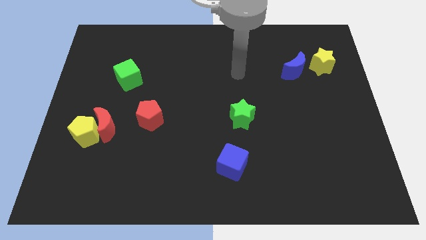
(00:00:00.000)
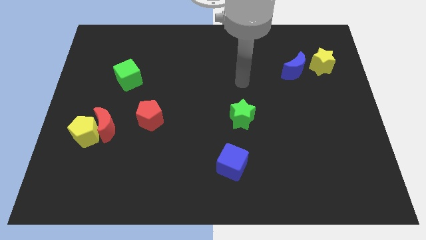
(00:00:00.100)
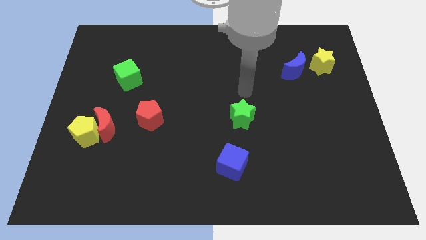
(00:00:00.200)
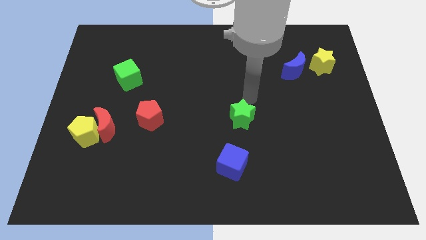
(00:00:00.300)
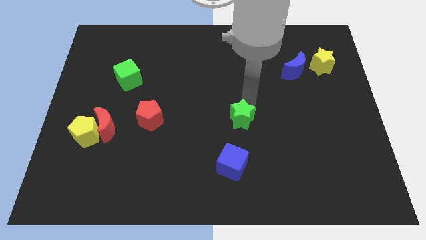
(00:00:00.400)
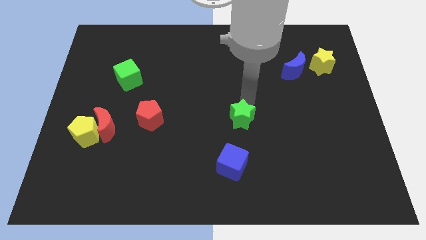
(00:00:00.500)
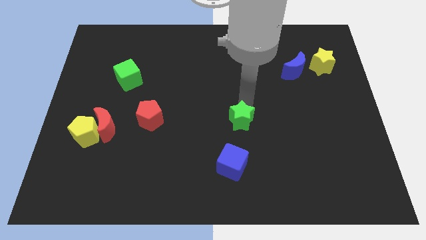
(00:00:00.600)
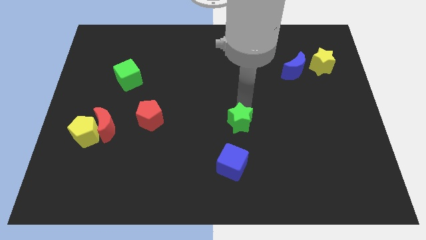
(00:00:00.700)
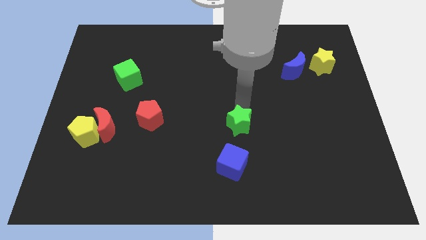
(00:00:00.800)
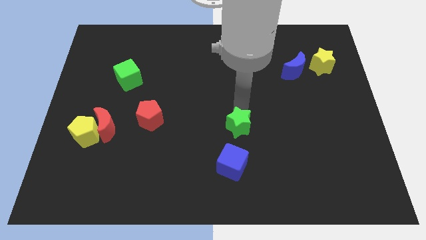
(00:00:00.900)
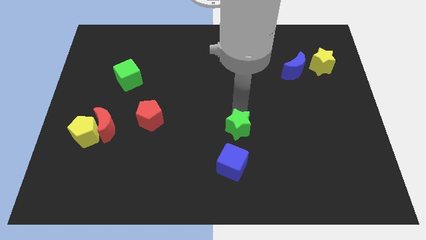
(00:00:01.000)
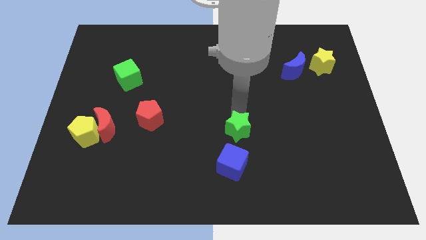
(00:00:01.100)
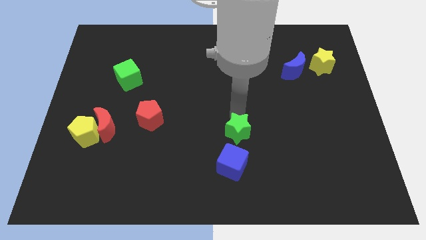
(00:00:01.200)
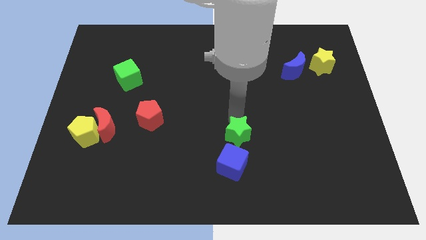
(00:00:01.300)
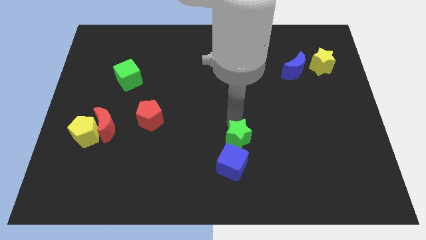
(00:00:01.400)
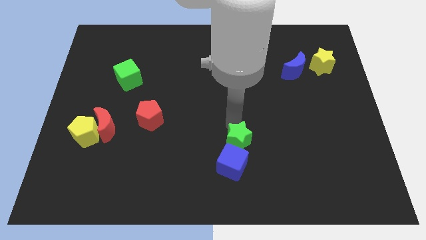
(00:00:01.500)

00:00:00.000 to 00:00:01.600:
move the green star close to the blue cube

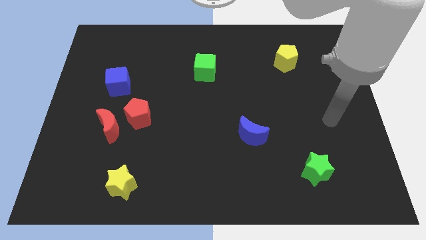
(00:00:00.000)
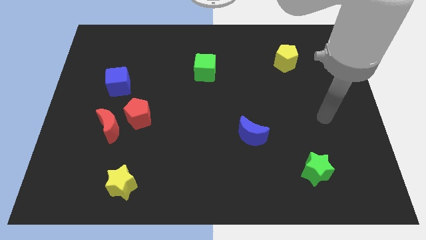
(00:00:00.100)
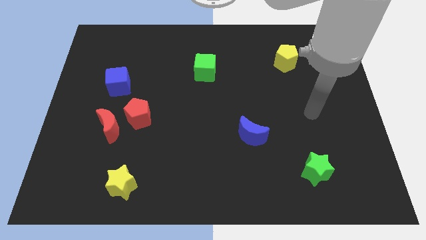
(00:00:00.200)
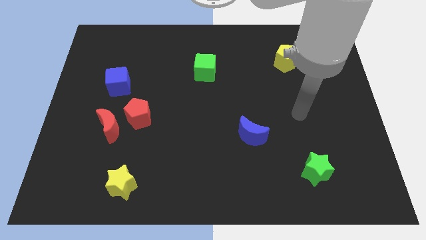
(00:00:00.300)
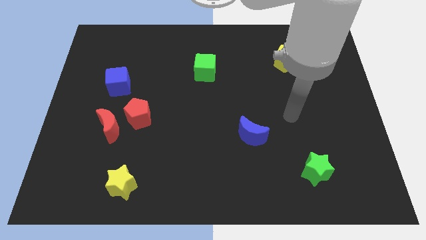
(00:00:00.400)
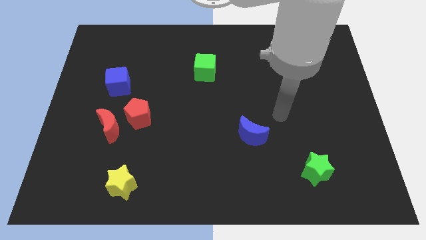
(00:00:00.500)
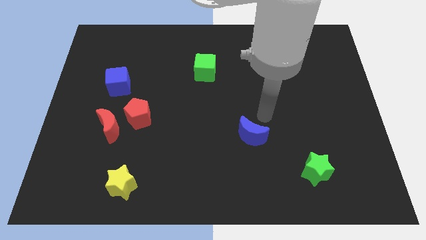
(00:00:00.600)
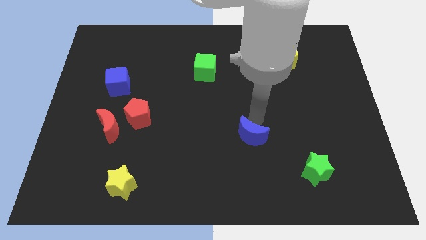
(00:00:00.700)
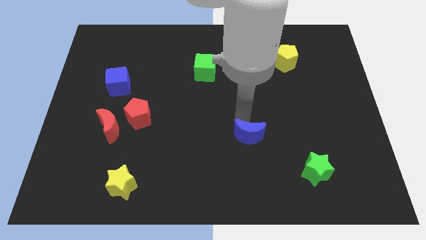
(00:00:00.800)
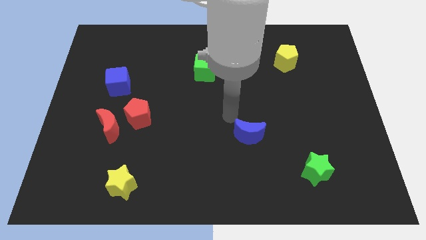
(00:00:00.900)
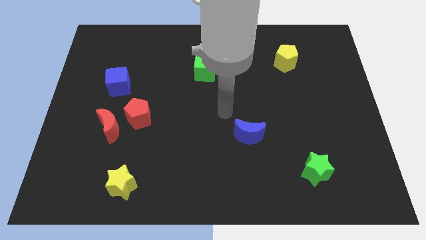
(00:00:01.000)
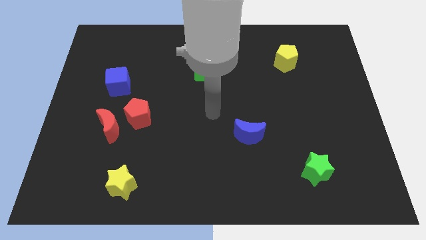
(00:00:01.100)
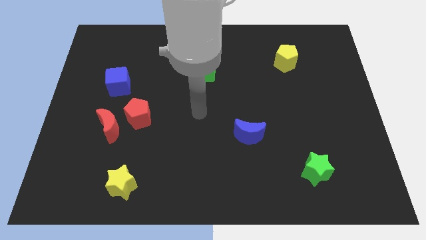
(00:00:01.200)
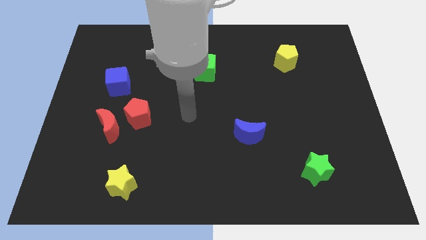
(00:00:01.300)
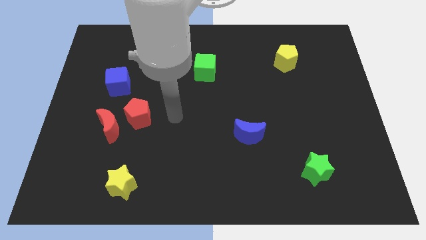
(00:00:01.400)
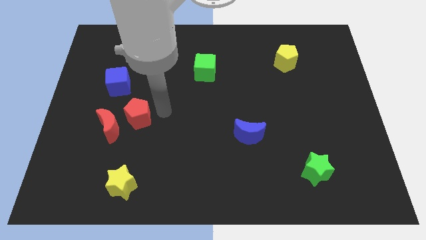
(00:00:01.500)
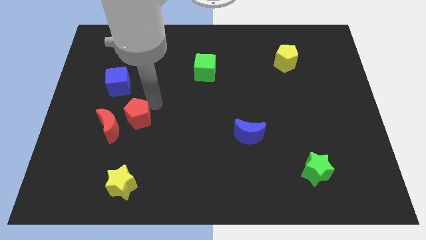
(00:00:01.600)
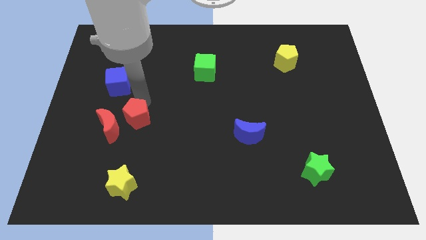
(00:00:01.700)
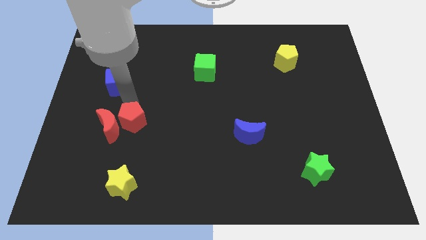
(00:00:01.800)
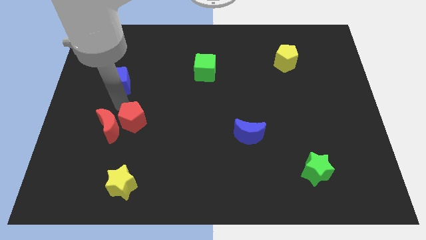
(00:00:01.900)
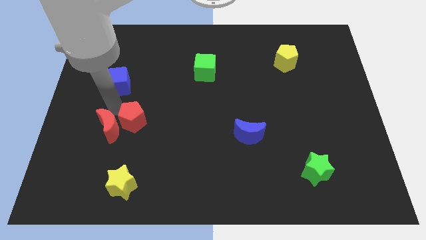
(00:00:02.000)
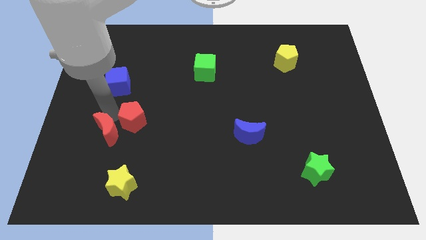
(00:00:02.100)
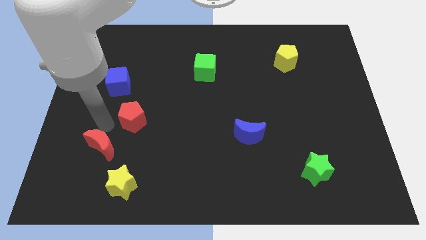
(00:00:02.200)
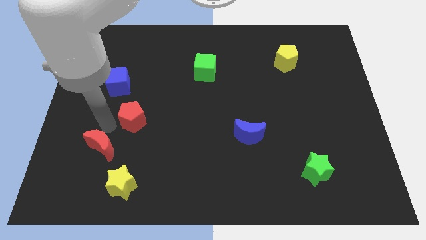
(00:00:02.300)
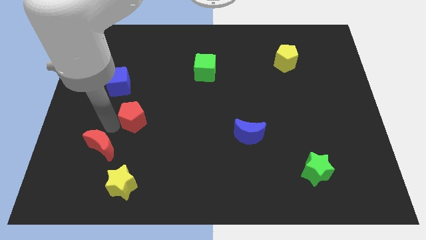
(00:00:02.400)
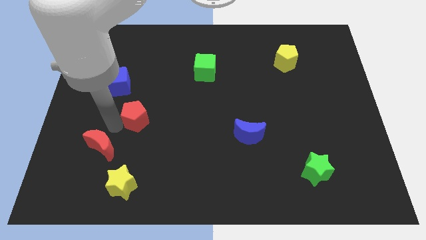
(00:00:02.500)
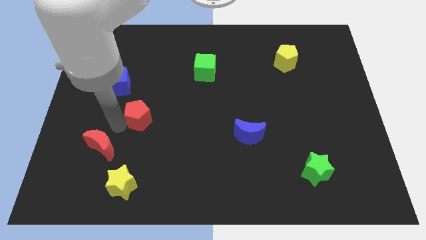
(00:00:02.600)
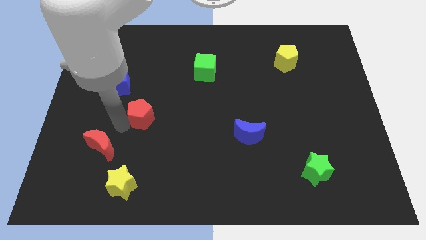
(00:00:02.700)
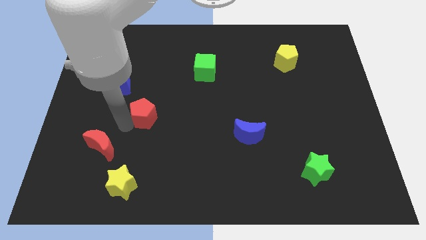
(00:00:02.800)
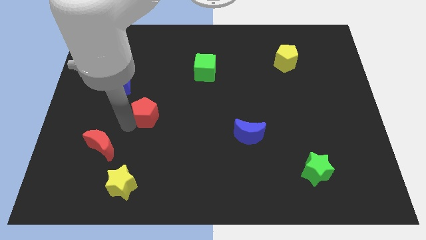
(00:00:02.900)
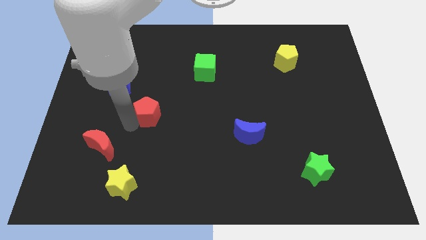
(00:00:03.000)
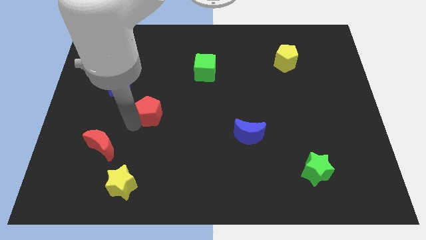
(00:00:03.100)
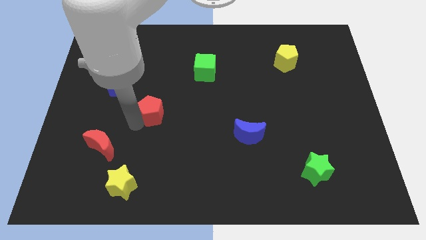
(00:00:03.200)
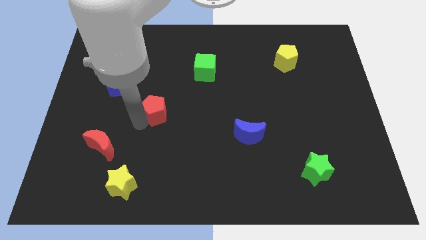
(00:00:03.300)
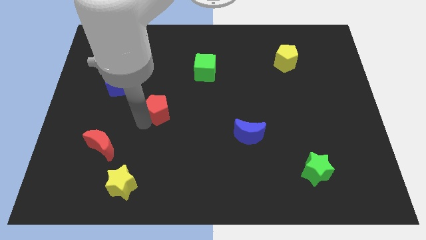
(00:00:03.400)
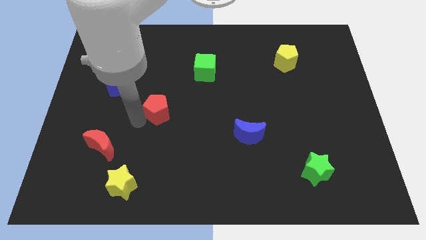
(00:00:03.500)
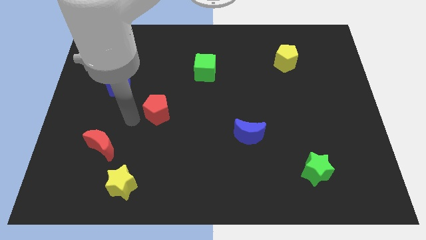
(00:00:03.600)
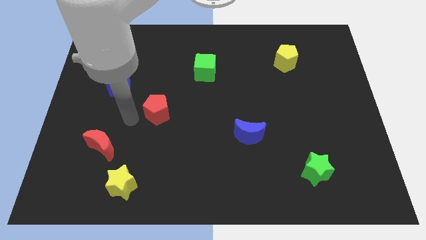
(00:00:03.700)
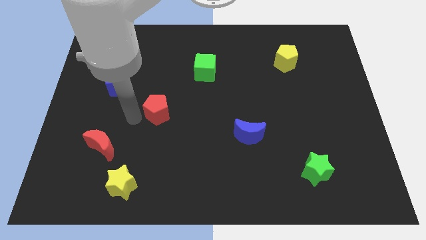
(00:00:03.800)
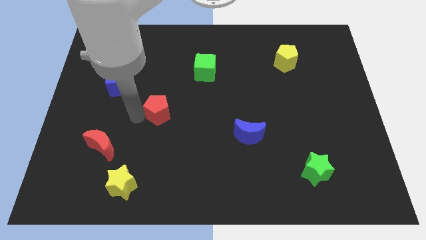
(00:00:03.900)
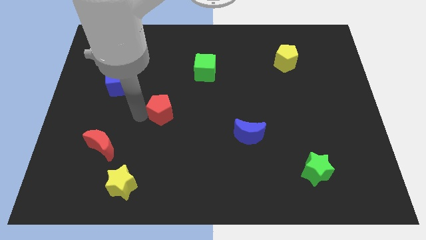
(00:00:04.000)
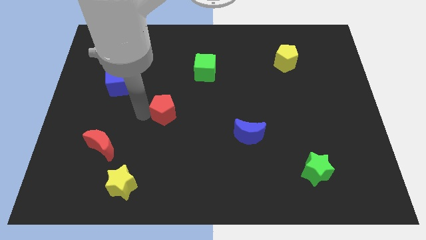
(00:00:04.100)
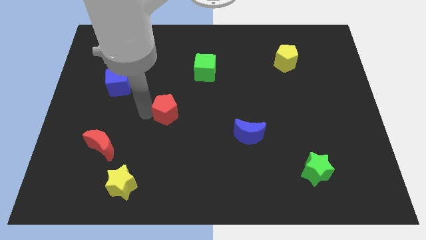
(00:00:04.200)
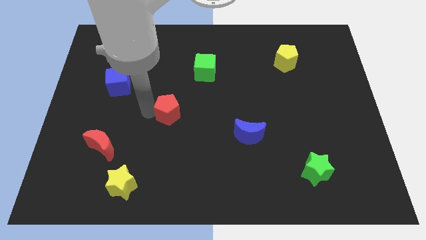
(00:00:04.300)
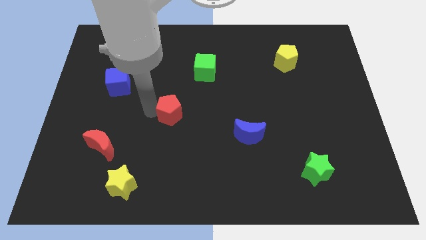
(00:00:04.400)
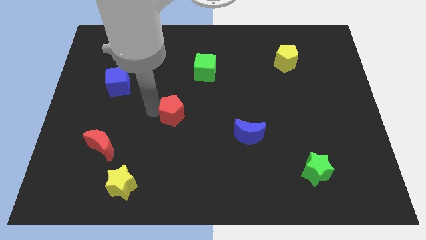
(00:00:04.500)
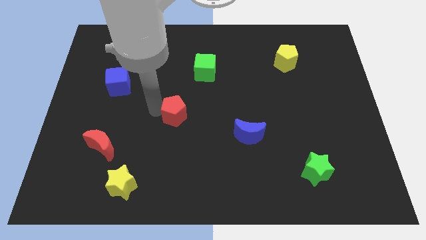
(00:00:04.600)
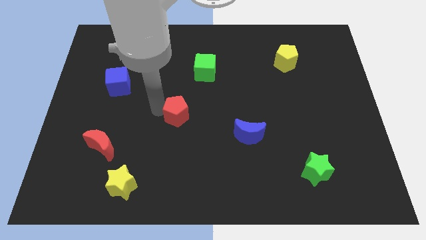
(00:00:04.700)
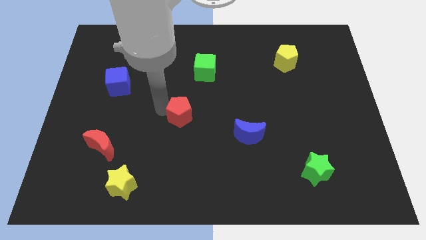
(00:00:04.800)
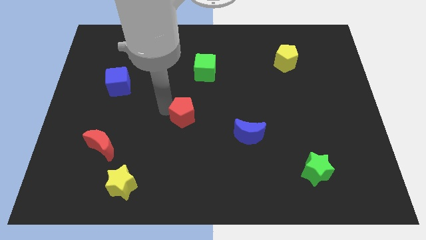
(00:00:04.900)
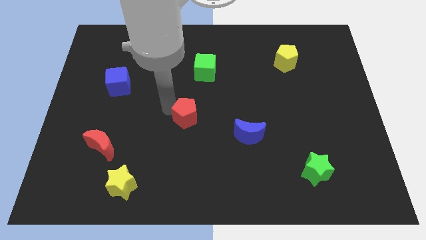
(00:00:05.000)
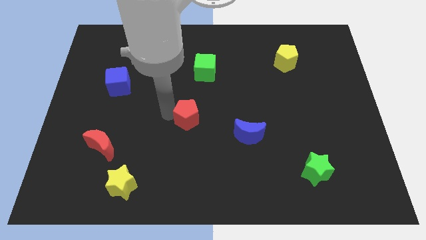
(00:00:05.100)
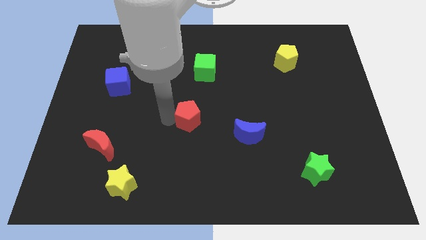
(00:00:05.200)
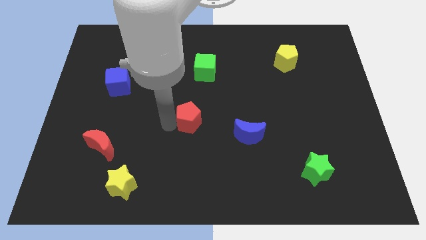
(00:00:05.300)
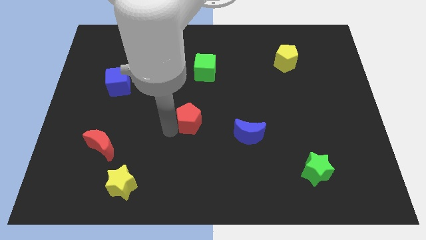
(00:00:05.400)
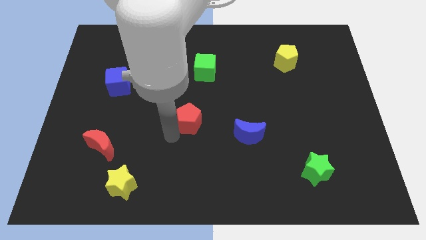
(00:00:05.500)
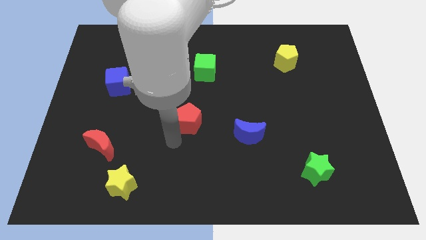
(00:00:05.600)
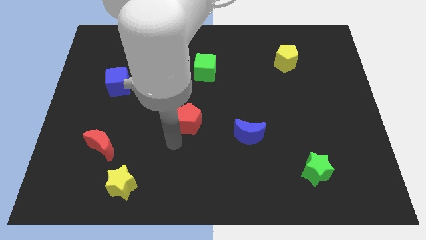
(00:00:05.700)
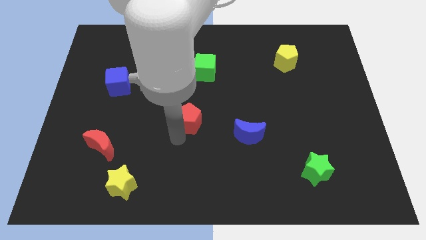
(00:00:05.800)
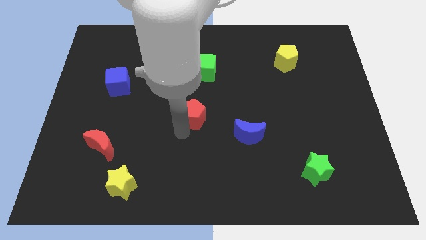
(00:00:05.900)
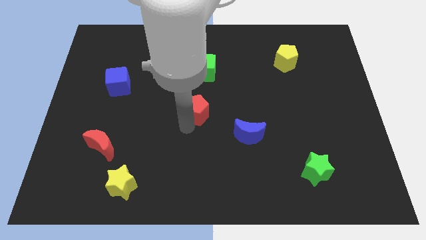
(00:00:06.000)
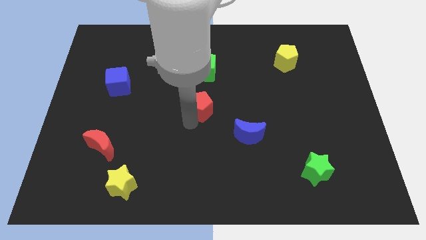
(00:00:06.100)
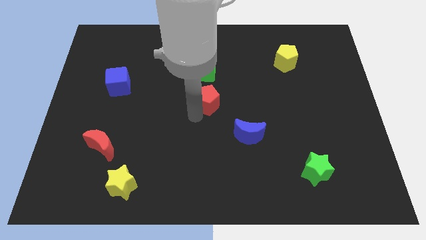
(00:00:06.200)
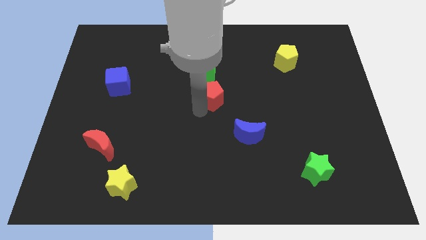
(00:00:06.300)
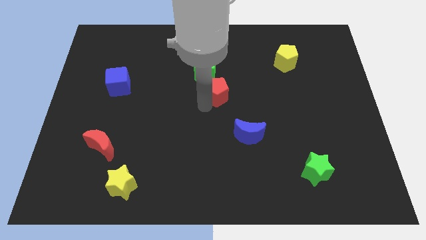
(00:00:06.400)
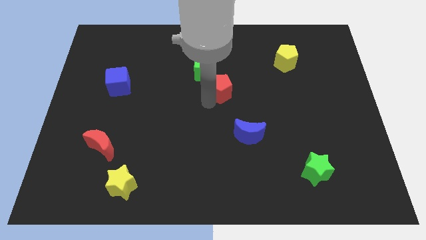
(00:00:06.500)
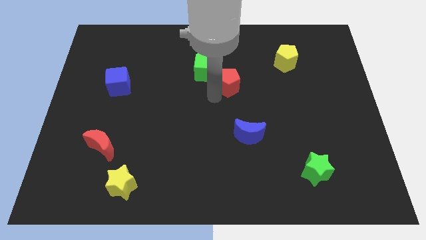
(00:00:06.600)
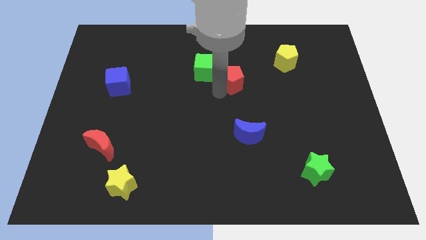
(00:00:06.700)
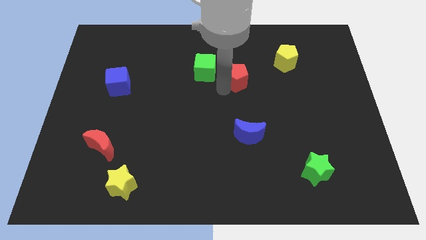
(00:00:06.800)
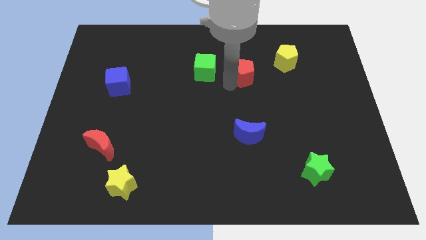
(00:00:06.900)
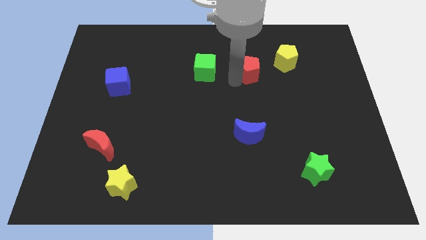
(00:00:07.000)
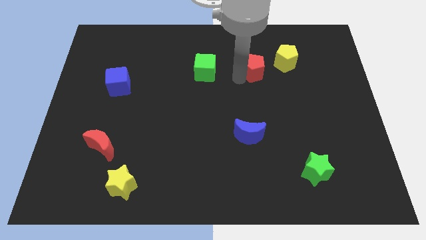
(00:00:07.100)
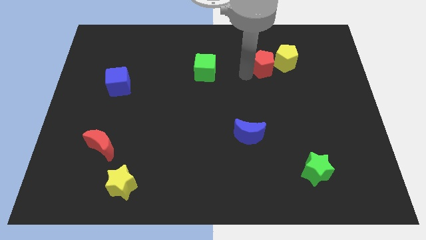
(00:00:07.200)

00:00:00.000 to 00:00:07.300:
push the red pentagon close to the yellow pentagon
